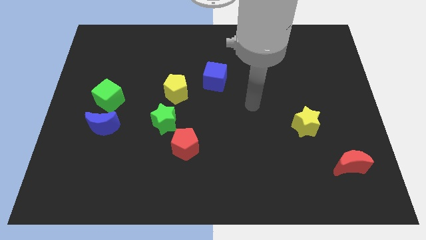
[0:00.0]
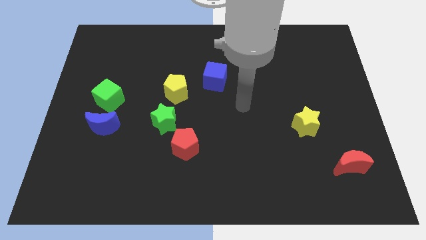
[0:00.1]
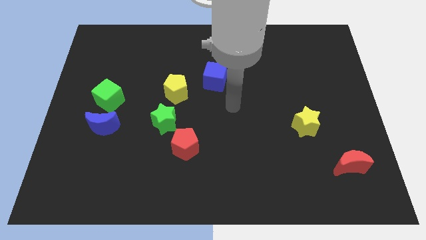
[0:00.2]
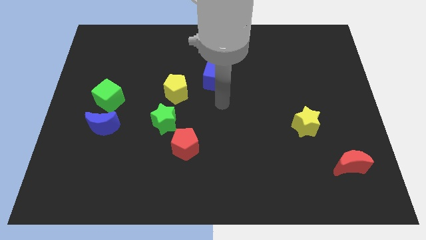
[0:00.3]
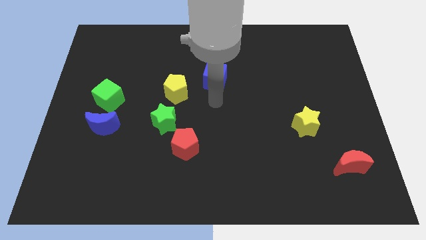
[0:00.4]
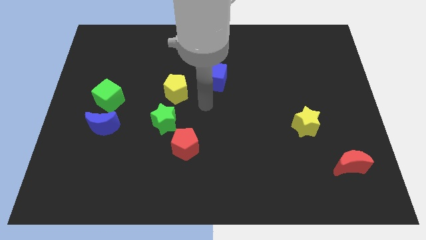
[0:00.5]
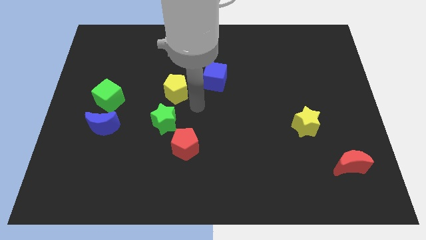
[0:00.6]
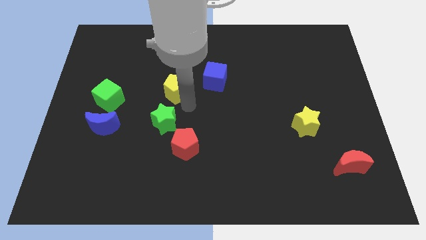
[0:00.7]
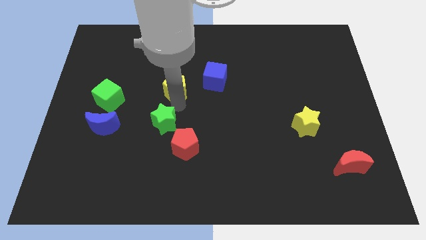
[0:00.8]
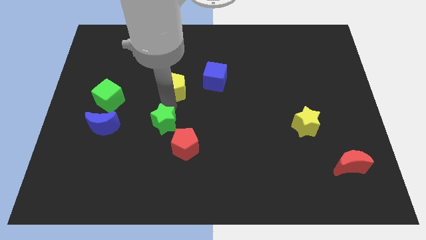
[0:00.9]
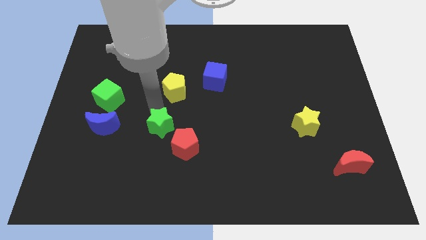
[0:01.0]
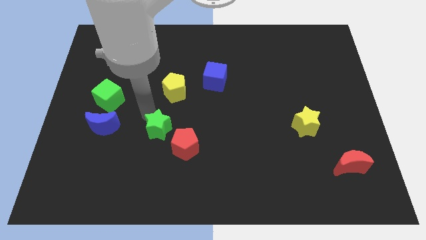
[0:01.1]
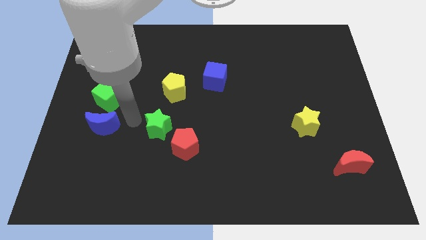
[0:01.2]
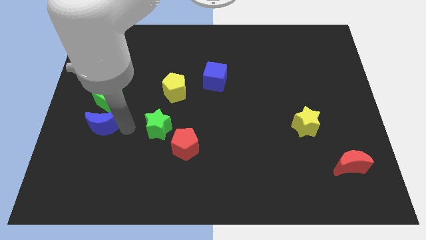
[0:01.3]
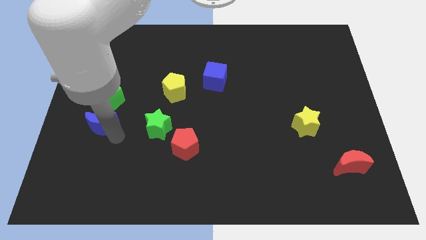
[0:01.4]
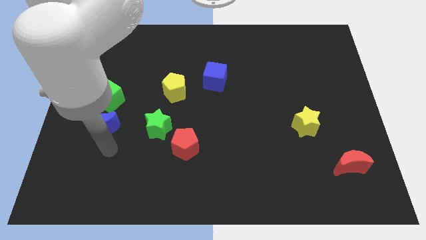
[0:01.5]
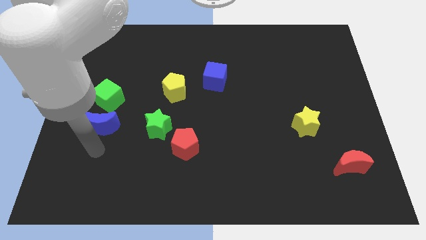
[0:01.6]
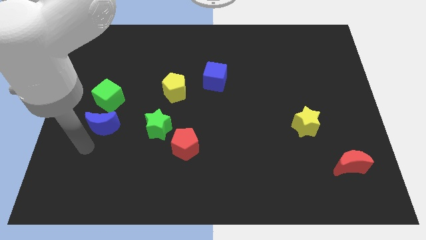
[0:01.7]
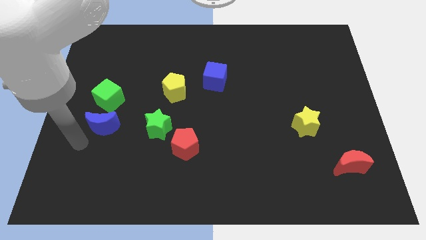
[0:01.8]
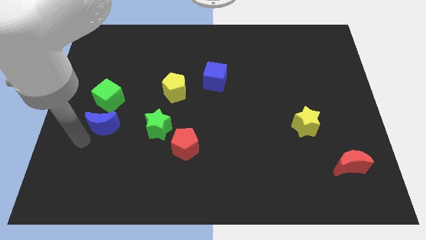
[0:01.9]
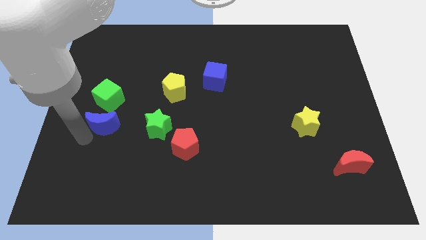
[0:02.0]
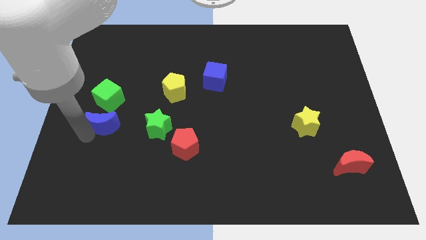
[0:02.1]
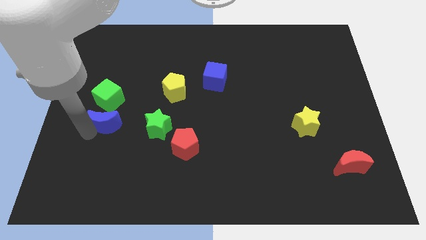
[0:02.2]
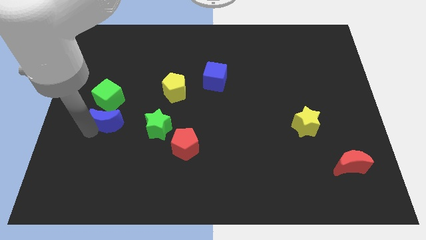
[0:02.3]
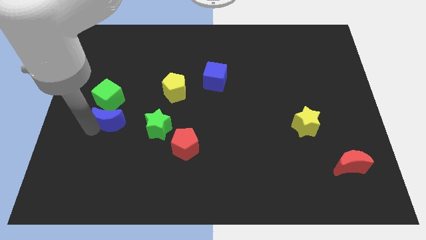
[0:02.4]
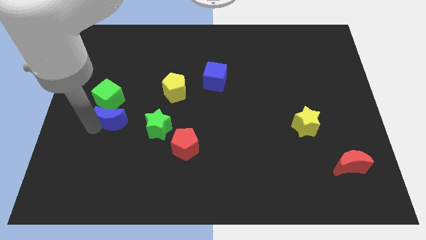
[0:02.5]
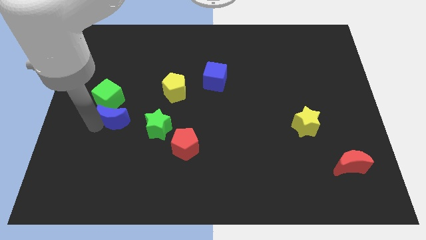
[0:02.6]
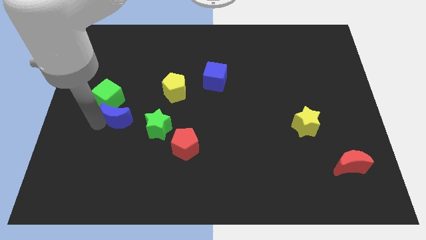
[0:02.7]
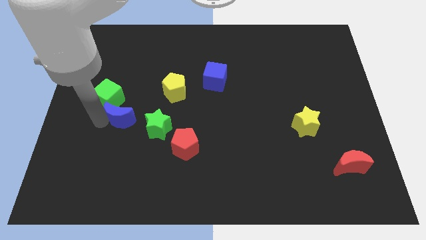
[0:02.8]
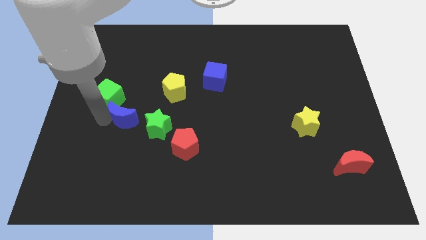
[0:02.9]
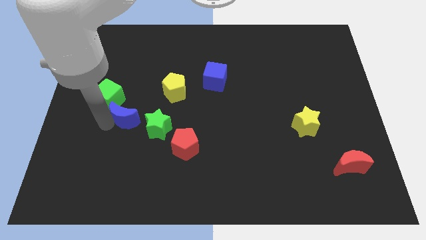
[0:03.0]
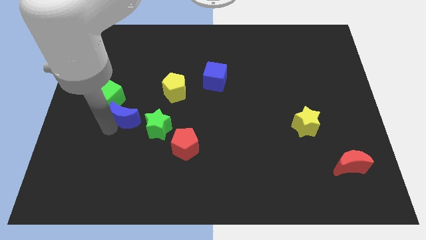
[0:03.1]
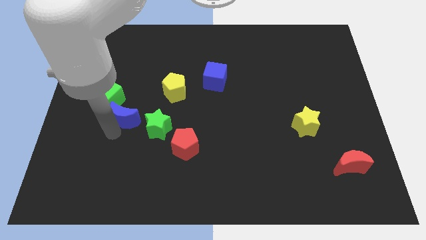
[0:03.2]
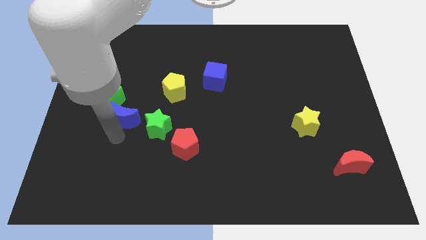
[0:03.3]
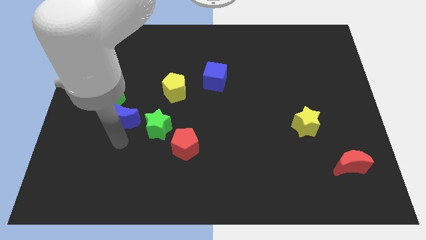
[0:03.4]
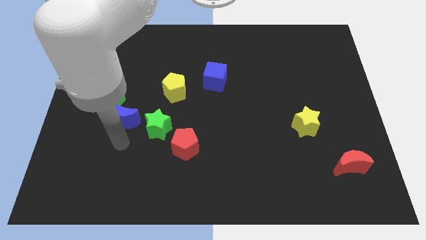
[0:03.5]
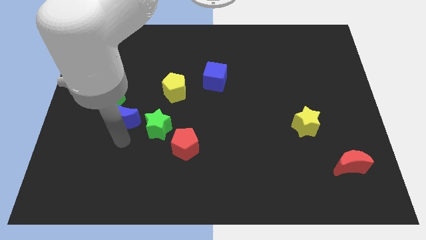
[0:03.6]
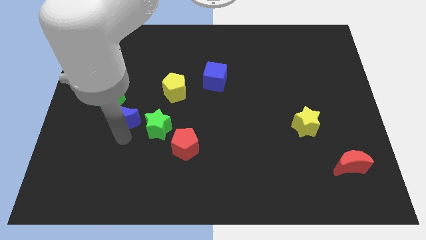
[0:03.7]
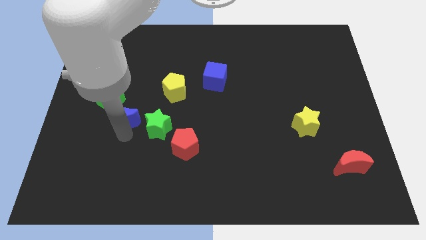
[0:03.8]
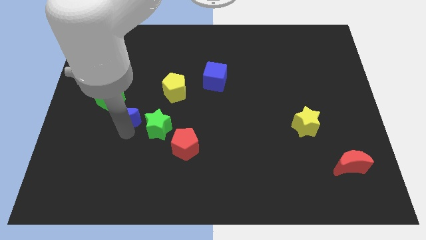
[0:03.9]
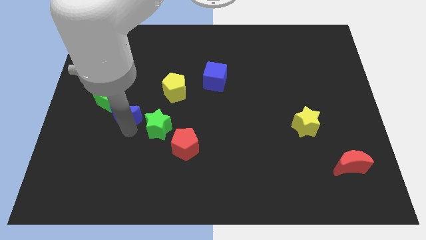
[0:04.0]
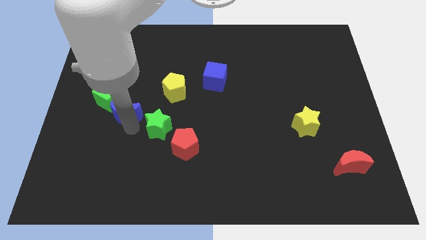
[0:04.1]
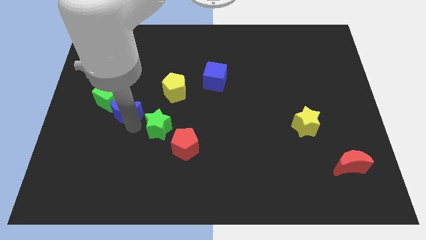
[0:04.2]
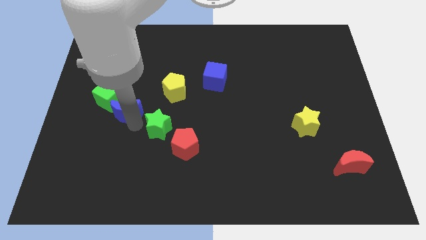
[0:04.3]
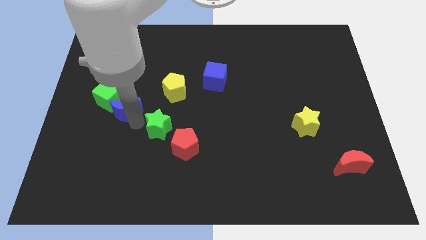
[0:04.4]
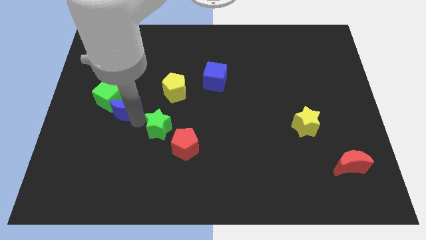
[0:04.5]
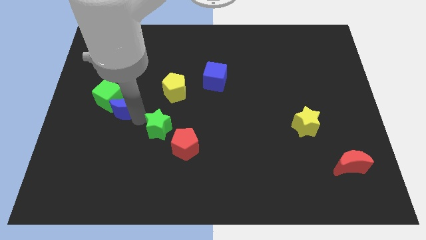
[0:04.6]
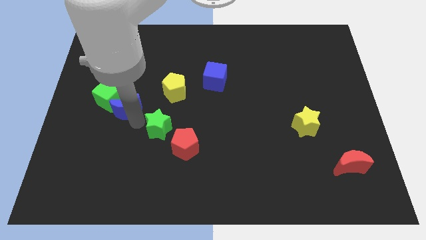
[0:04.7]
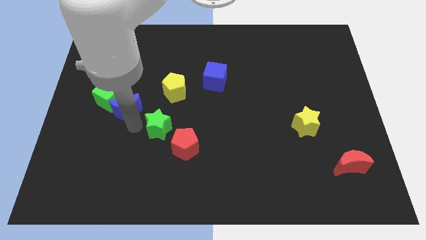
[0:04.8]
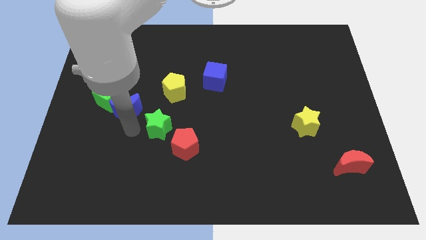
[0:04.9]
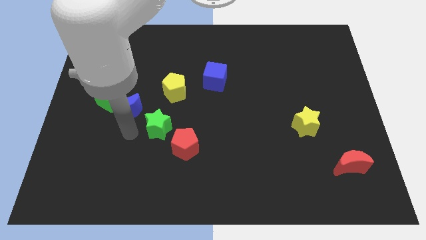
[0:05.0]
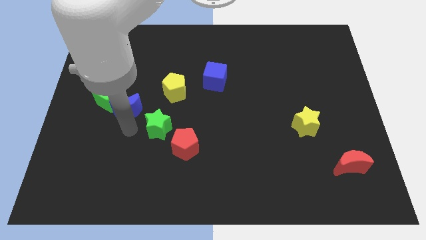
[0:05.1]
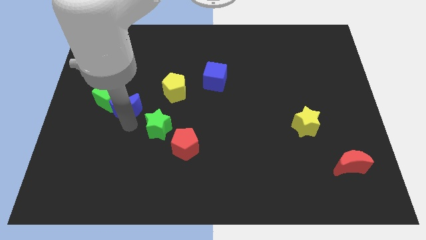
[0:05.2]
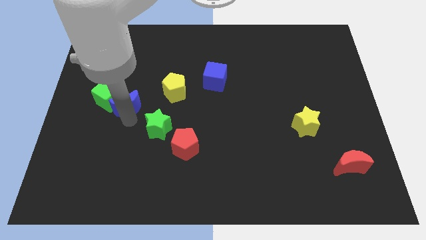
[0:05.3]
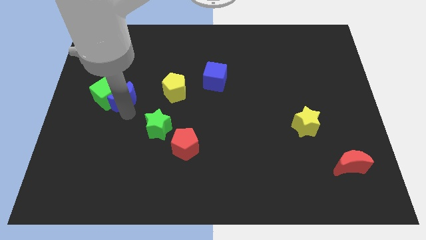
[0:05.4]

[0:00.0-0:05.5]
put the blue moon diagonally up and to the right of the green cube

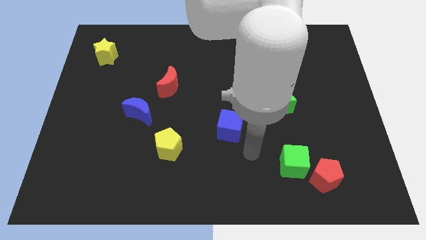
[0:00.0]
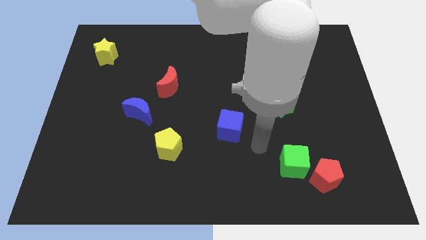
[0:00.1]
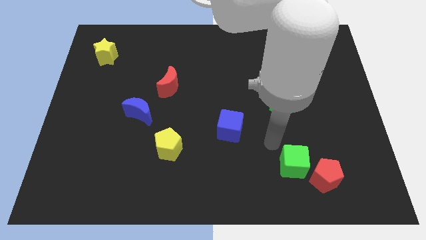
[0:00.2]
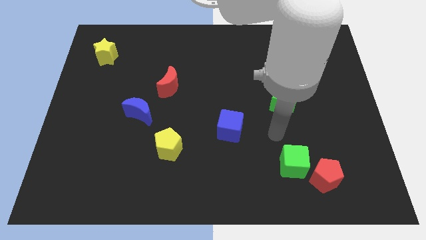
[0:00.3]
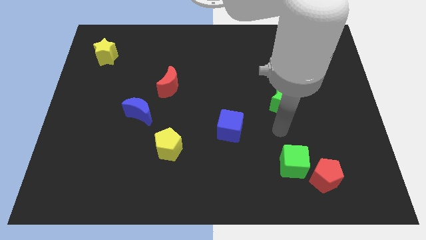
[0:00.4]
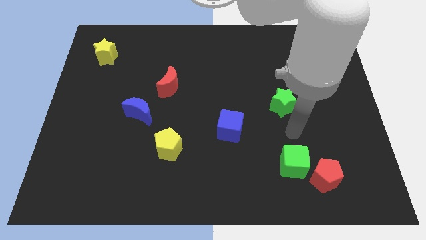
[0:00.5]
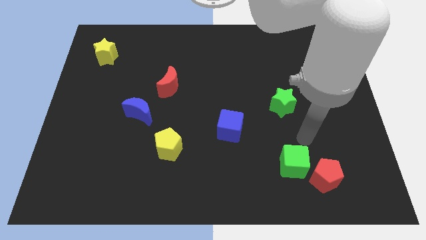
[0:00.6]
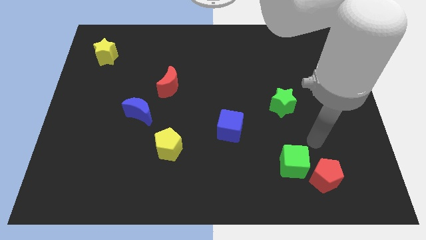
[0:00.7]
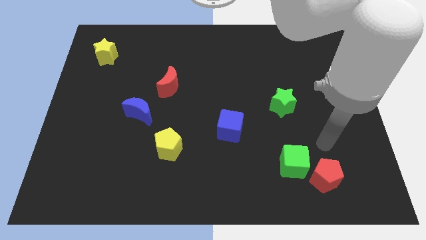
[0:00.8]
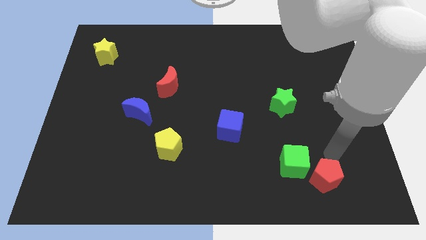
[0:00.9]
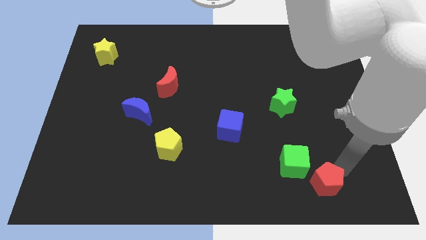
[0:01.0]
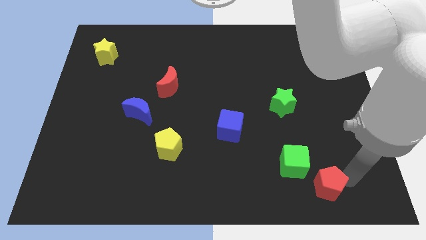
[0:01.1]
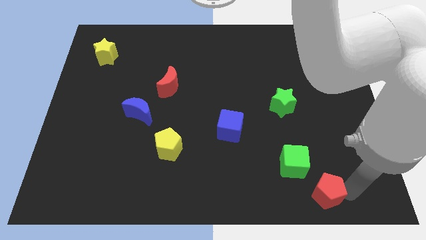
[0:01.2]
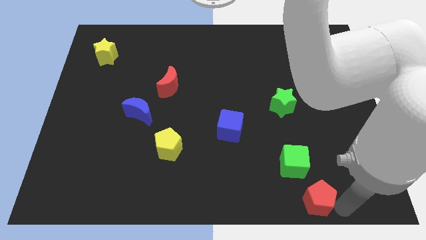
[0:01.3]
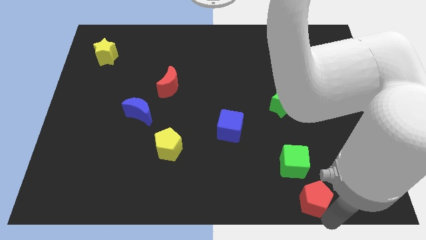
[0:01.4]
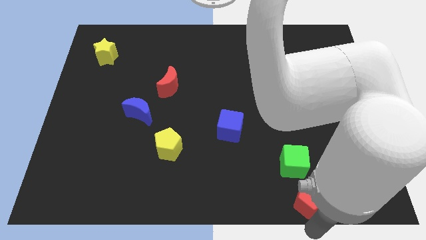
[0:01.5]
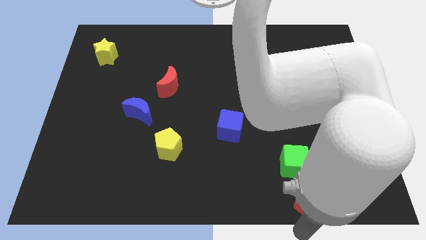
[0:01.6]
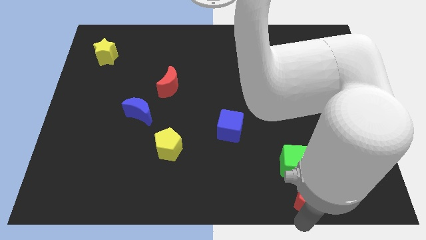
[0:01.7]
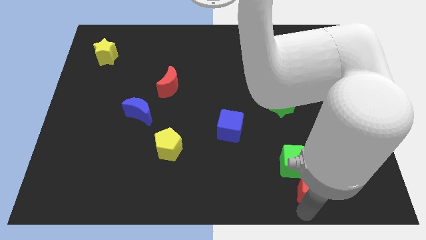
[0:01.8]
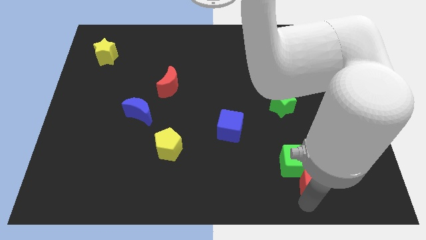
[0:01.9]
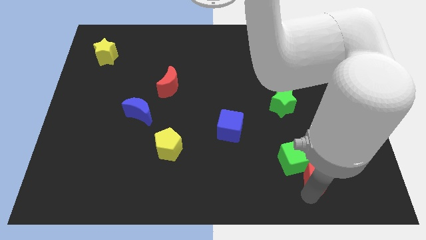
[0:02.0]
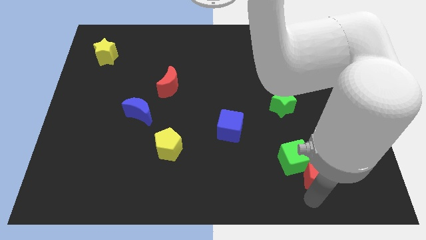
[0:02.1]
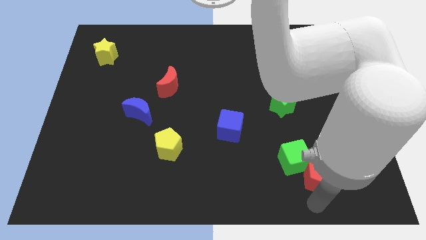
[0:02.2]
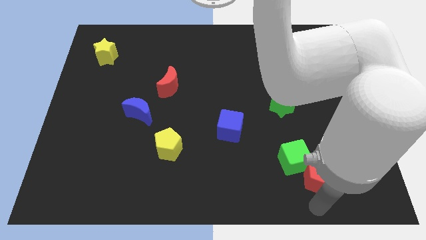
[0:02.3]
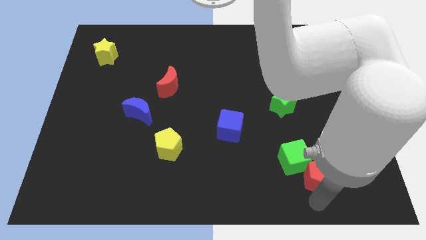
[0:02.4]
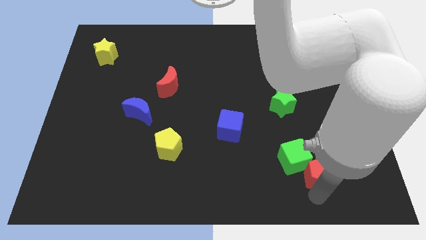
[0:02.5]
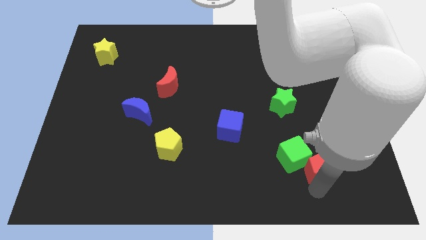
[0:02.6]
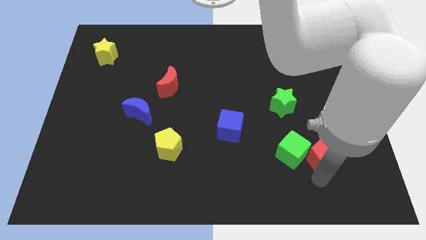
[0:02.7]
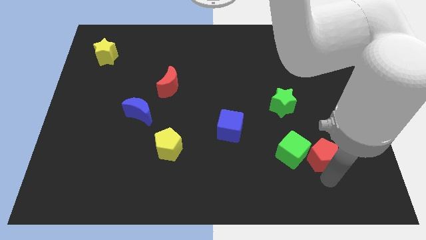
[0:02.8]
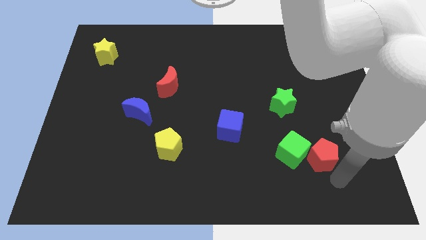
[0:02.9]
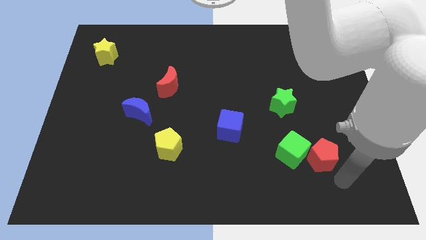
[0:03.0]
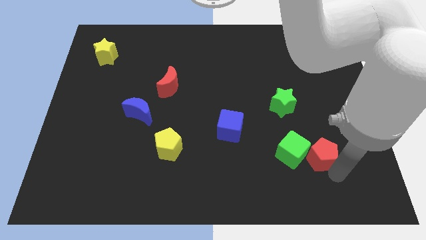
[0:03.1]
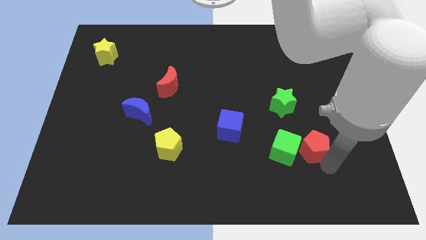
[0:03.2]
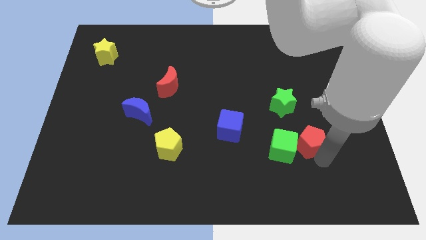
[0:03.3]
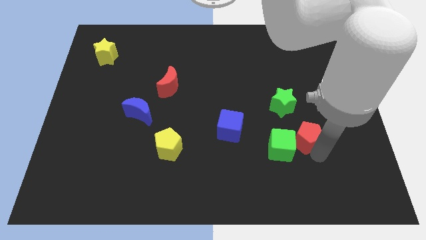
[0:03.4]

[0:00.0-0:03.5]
push the red pentagon diagonally down and to the right of the green star
